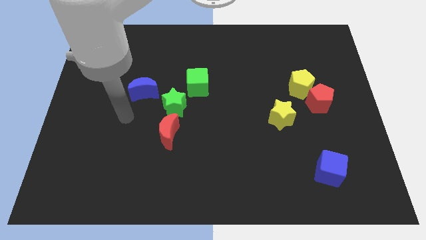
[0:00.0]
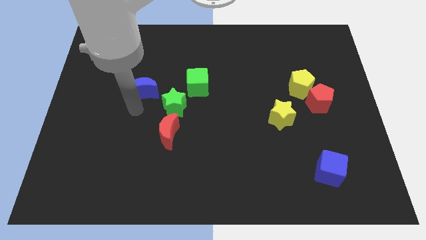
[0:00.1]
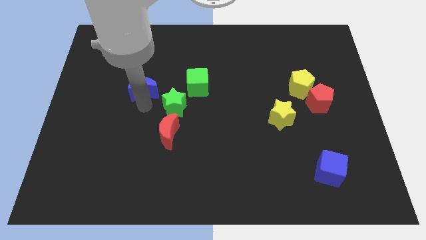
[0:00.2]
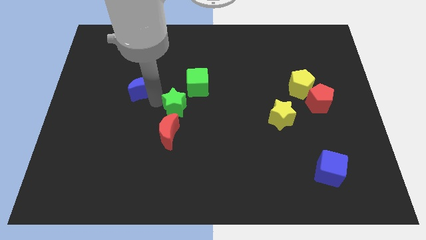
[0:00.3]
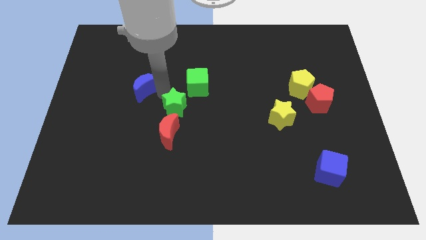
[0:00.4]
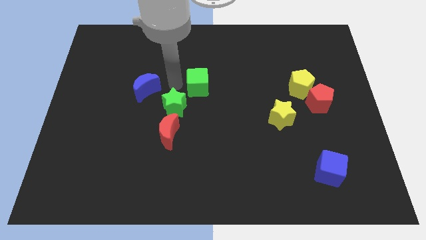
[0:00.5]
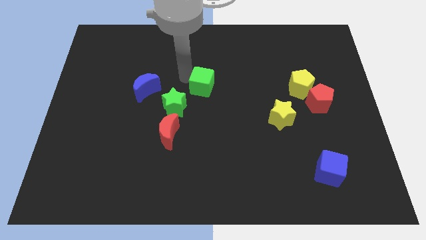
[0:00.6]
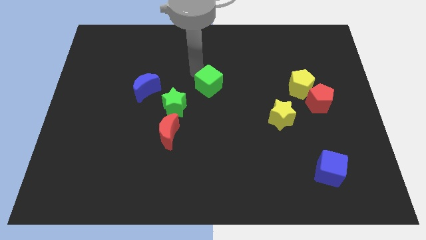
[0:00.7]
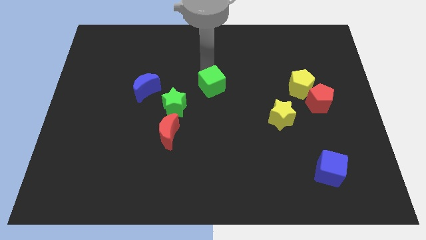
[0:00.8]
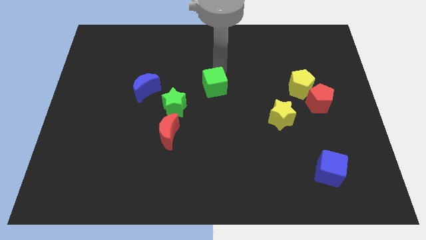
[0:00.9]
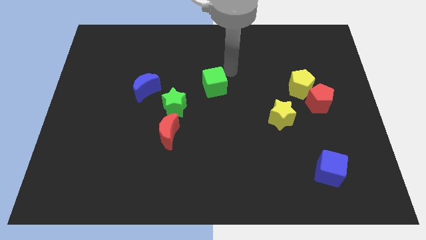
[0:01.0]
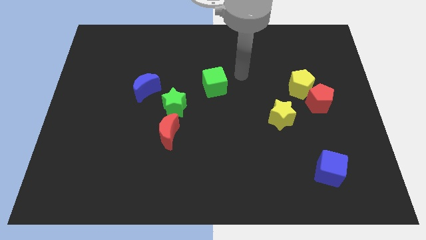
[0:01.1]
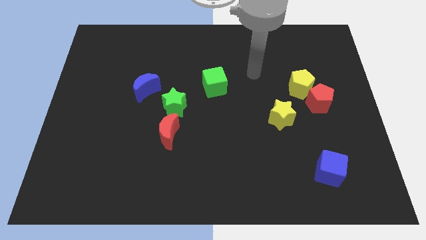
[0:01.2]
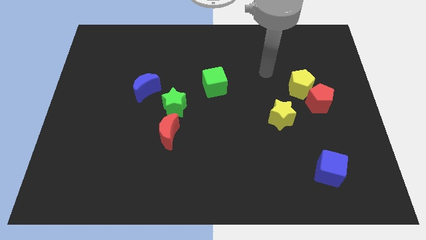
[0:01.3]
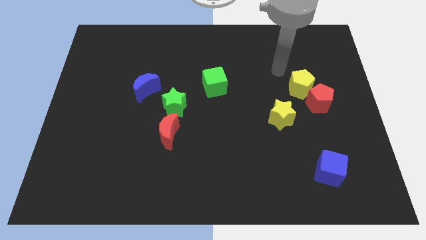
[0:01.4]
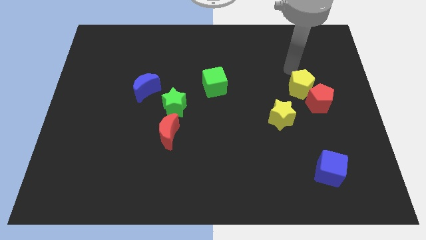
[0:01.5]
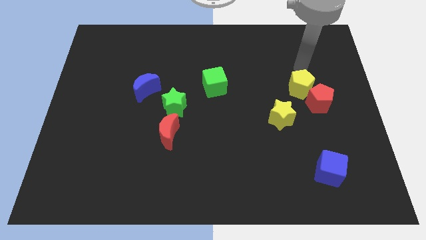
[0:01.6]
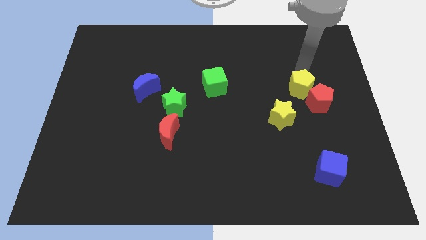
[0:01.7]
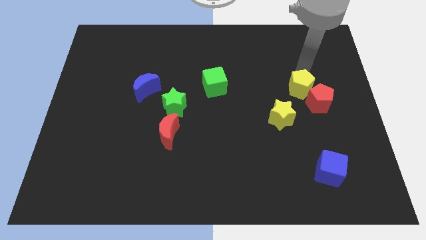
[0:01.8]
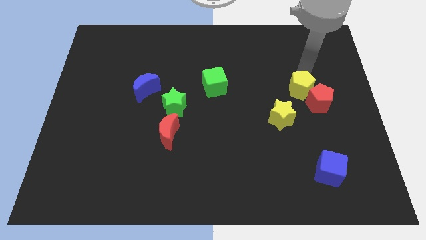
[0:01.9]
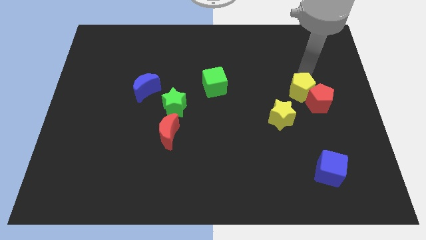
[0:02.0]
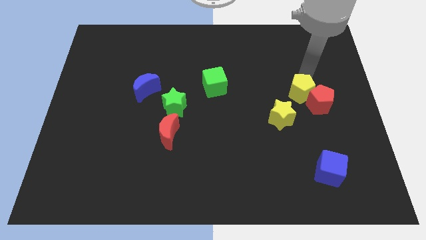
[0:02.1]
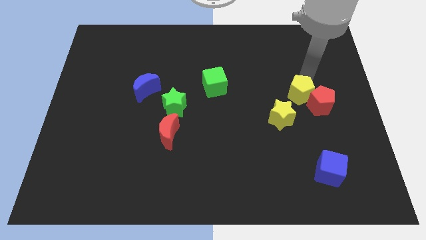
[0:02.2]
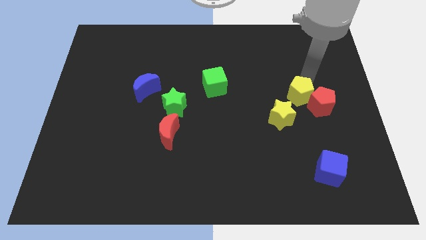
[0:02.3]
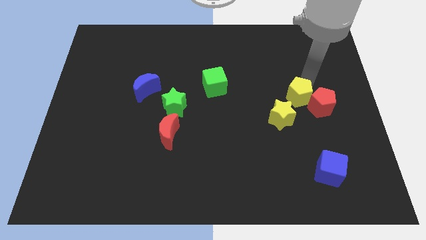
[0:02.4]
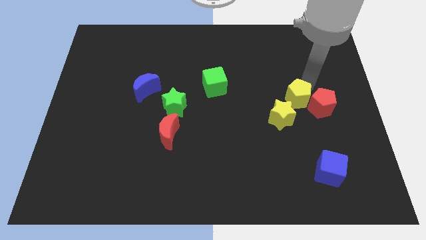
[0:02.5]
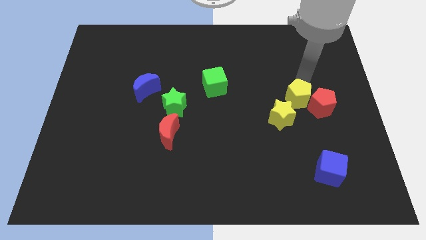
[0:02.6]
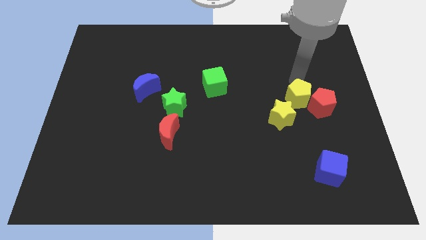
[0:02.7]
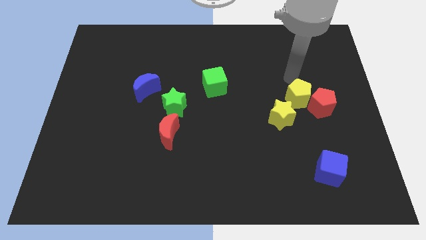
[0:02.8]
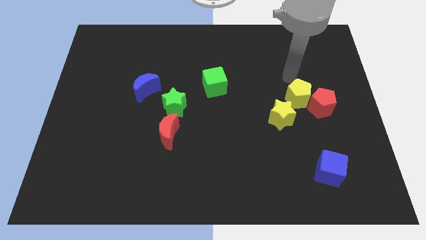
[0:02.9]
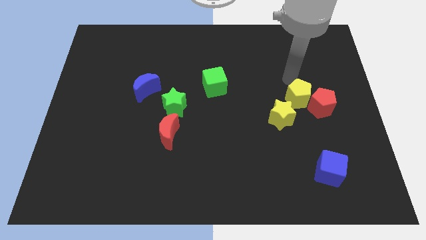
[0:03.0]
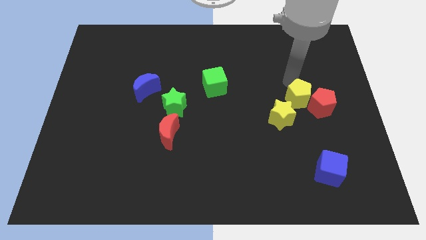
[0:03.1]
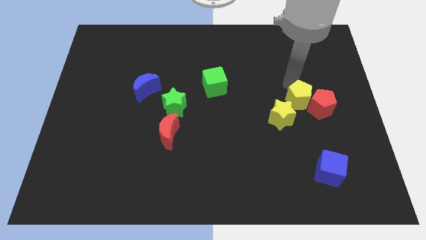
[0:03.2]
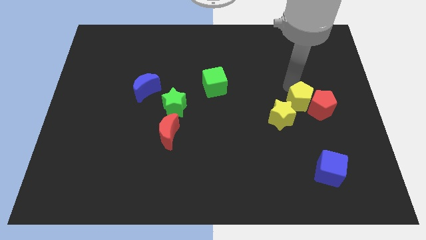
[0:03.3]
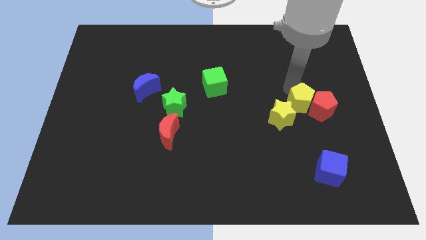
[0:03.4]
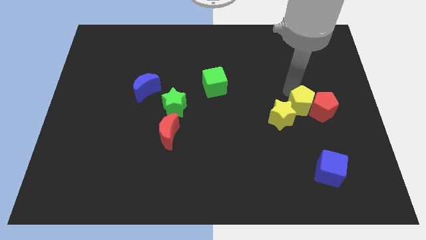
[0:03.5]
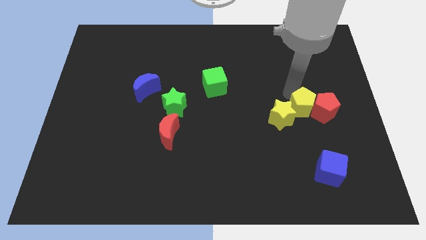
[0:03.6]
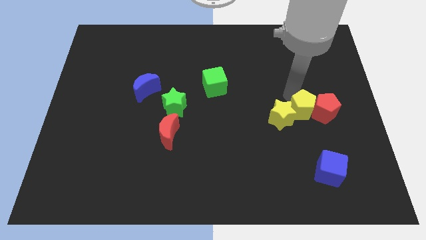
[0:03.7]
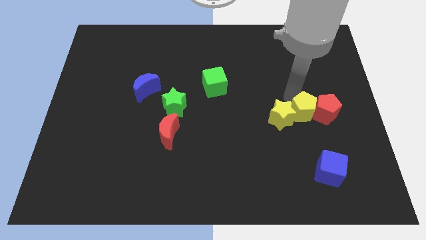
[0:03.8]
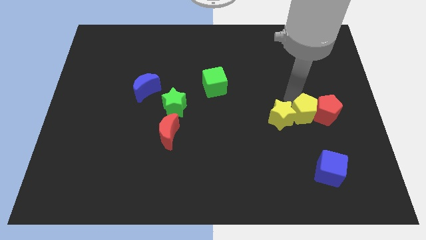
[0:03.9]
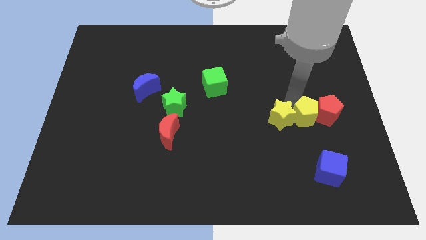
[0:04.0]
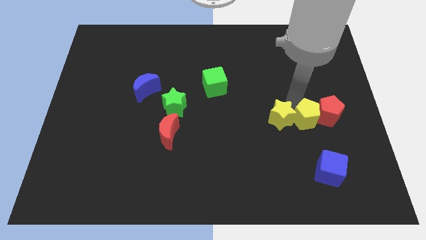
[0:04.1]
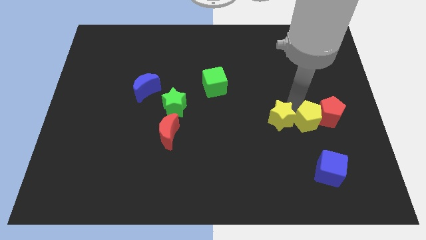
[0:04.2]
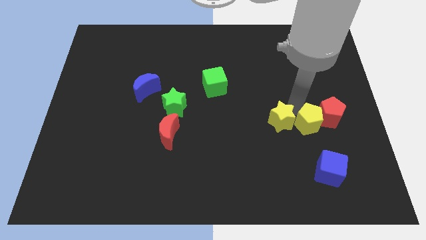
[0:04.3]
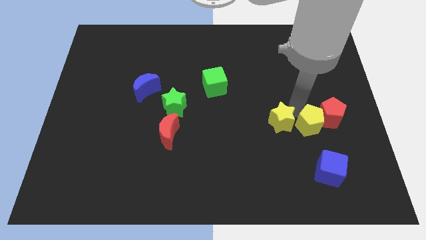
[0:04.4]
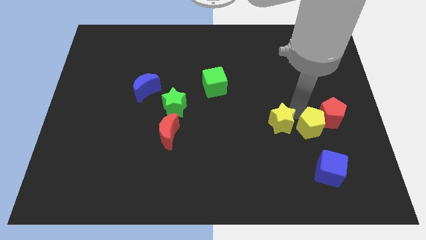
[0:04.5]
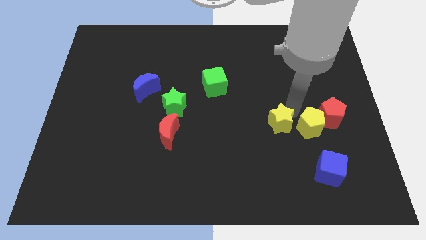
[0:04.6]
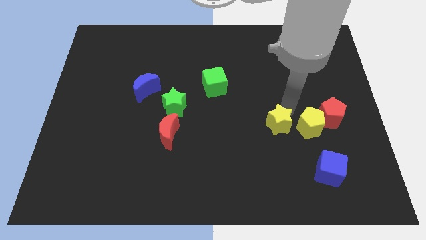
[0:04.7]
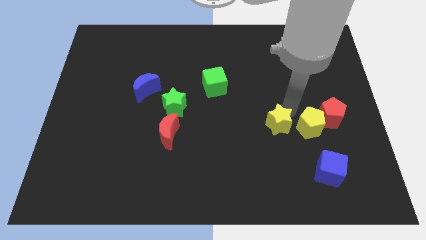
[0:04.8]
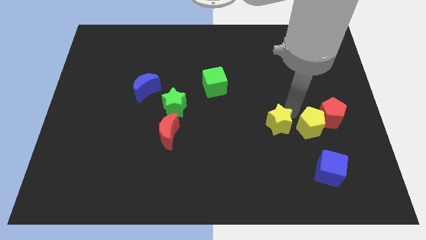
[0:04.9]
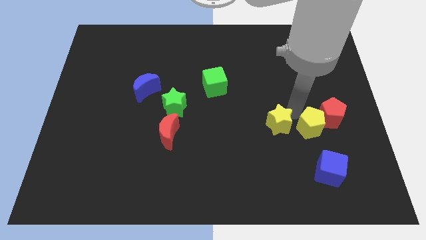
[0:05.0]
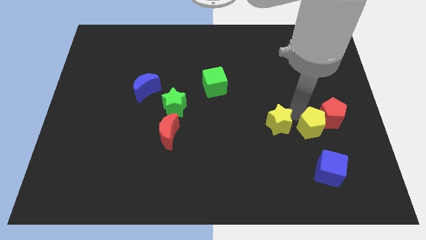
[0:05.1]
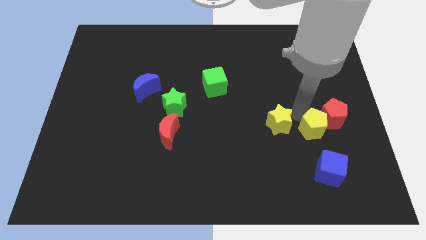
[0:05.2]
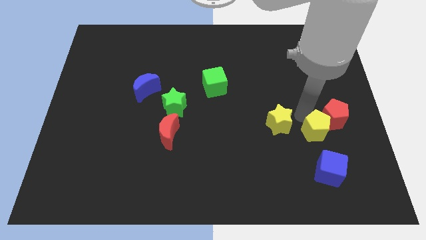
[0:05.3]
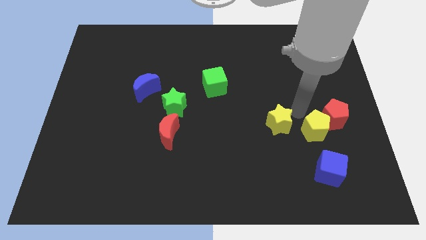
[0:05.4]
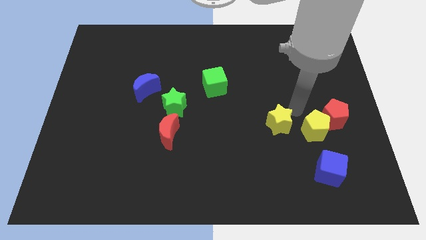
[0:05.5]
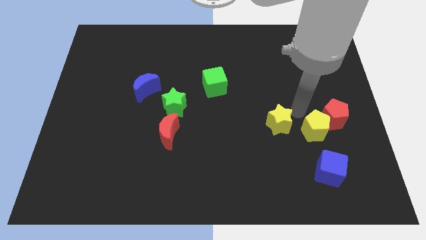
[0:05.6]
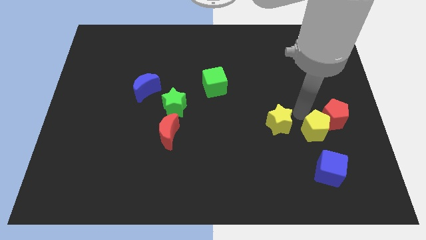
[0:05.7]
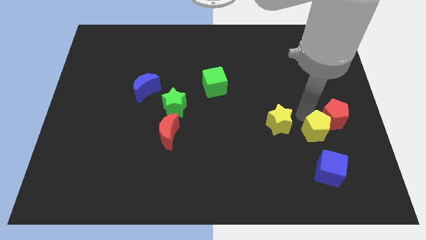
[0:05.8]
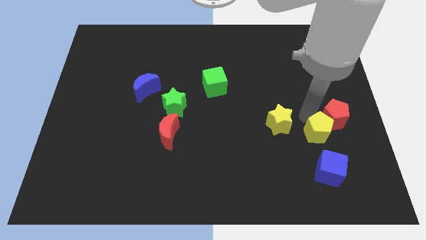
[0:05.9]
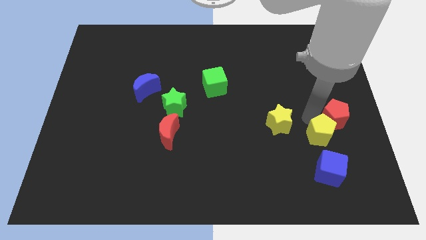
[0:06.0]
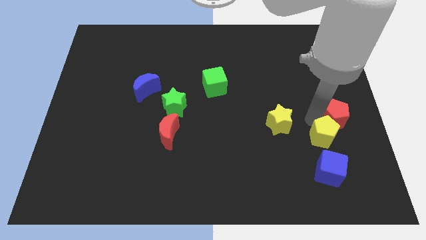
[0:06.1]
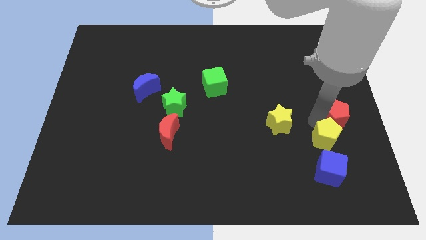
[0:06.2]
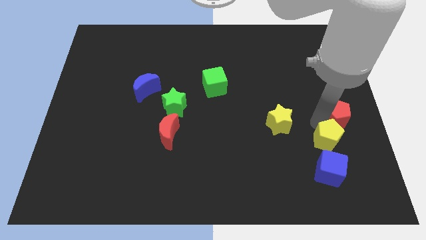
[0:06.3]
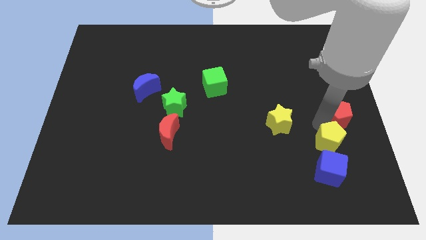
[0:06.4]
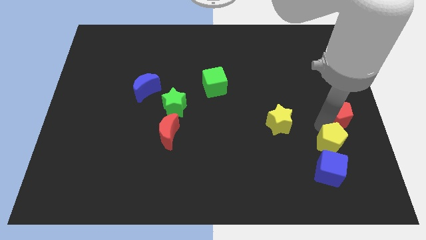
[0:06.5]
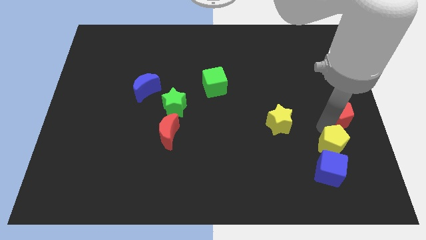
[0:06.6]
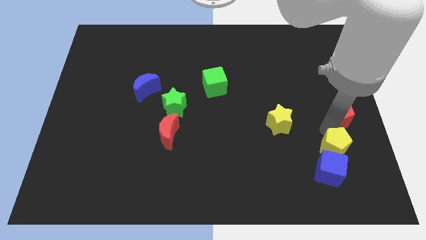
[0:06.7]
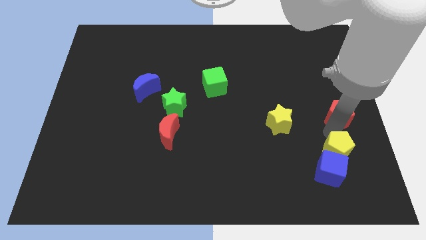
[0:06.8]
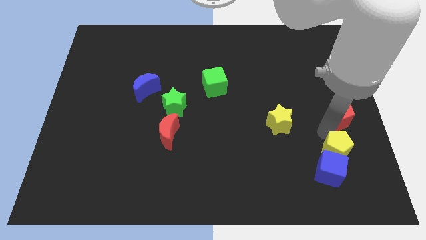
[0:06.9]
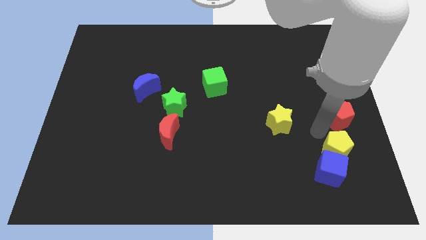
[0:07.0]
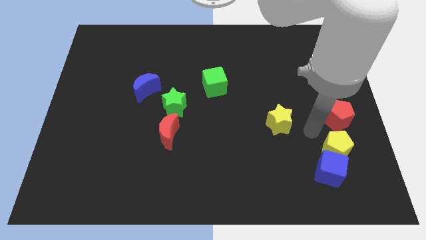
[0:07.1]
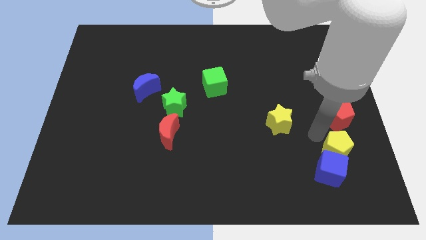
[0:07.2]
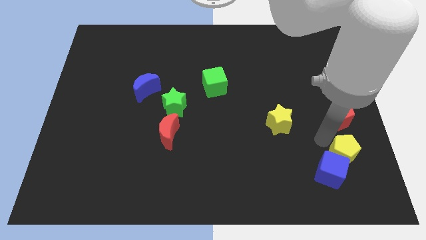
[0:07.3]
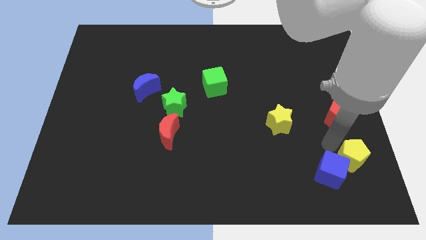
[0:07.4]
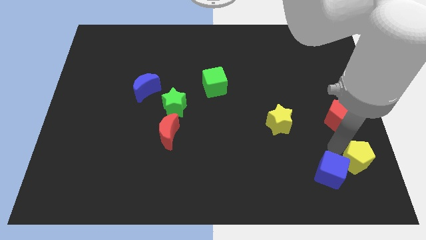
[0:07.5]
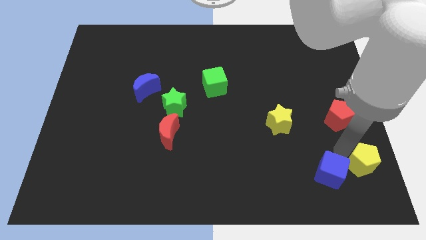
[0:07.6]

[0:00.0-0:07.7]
push the yellow pentagon to the lower right corner
